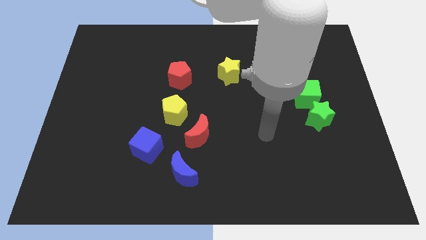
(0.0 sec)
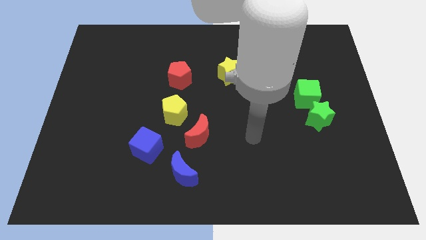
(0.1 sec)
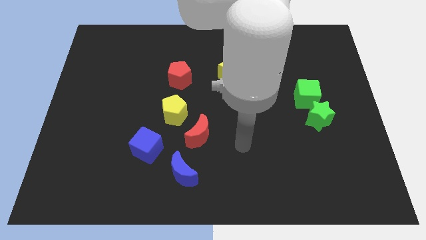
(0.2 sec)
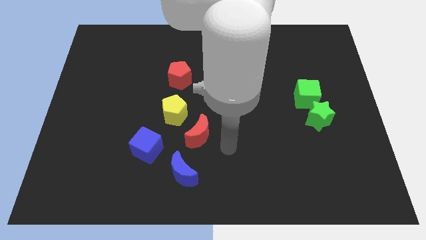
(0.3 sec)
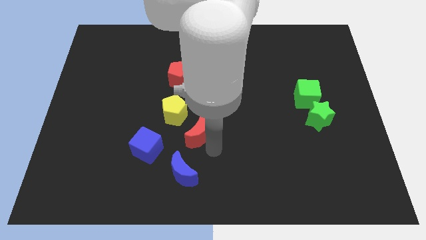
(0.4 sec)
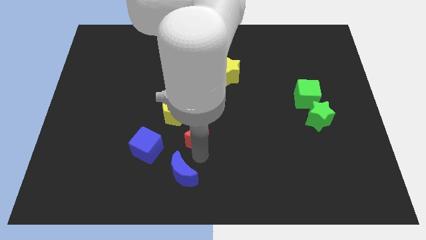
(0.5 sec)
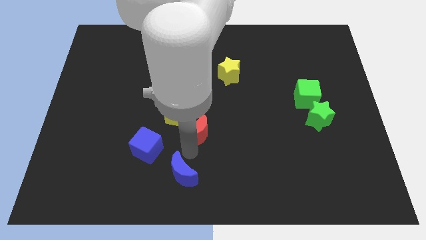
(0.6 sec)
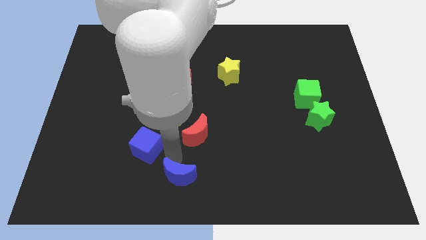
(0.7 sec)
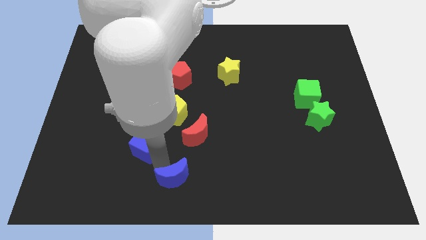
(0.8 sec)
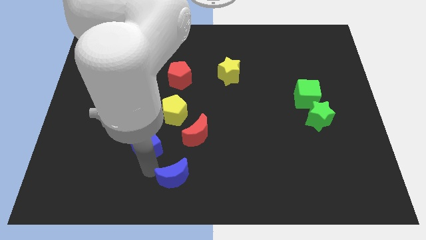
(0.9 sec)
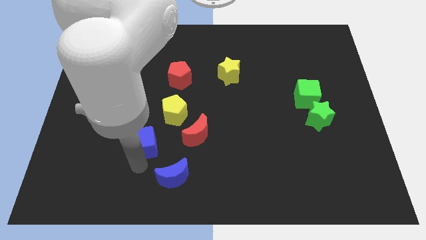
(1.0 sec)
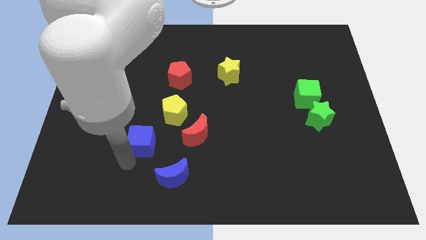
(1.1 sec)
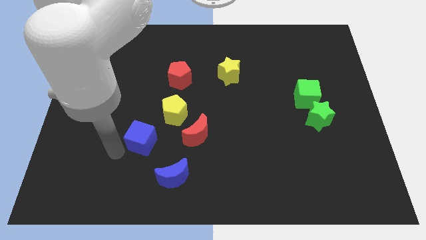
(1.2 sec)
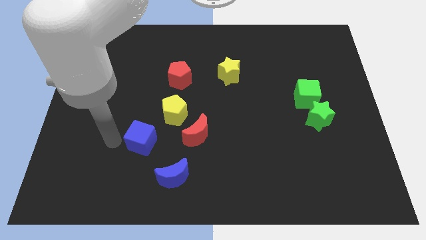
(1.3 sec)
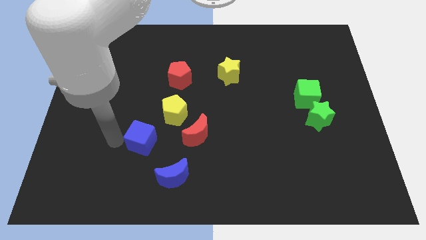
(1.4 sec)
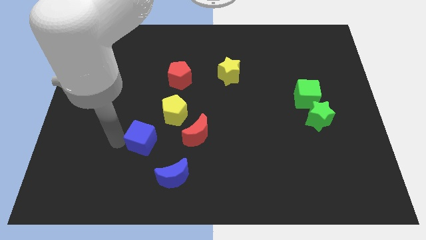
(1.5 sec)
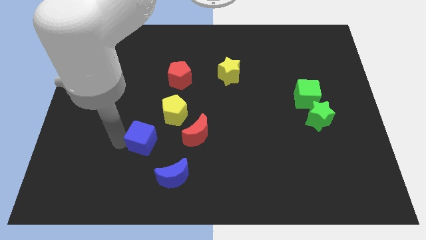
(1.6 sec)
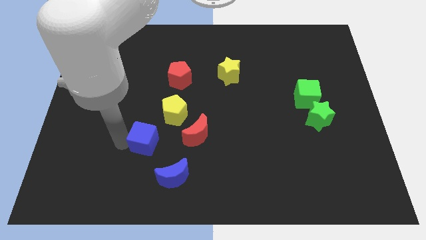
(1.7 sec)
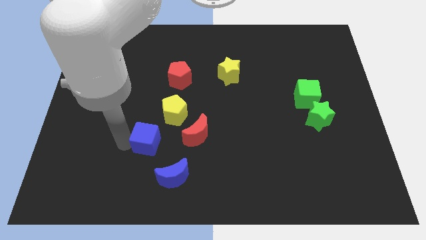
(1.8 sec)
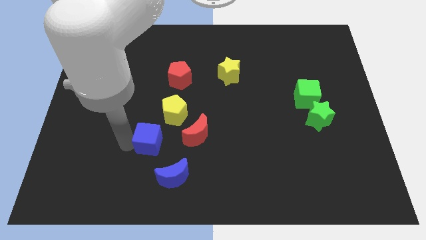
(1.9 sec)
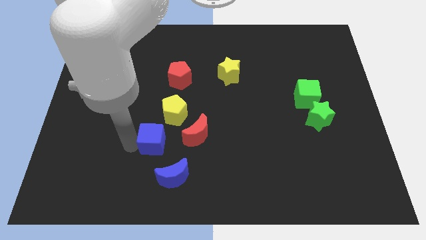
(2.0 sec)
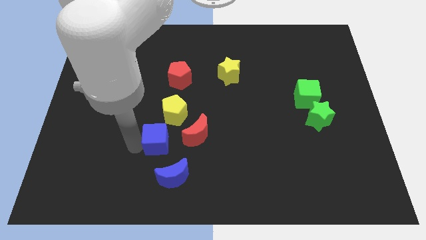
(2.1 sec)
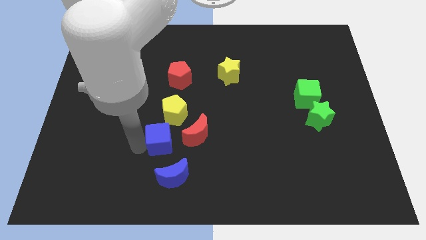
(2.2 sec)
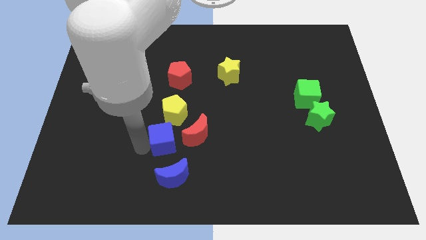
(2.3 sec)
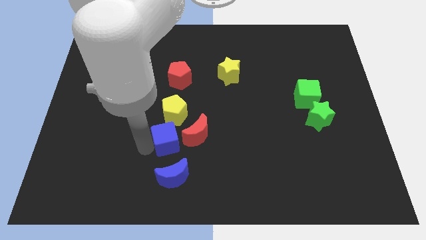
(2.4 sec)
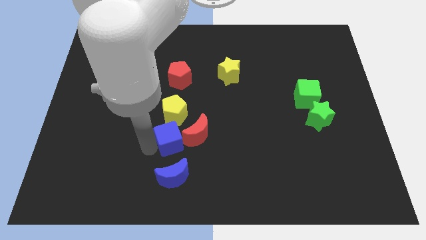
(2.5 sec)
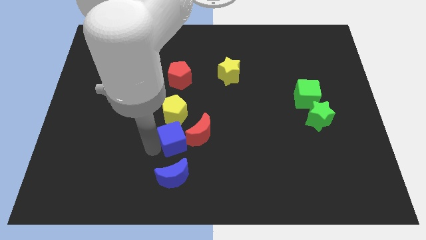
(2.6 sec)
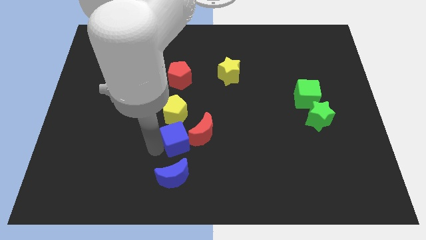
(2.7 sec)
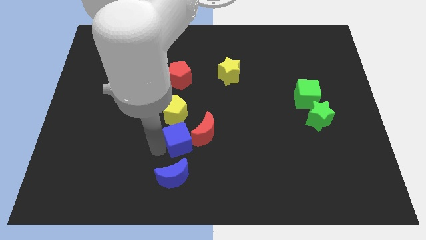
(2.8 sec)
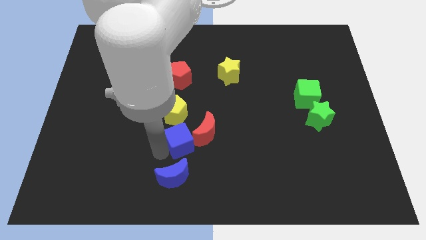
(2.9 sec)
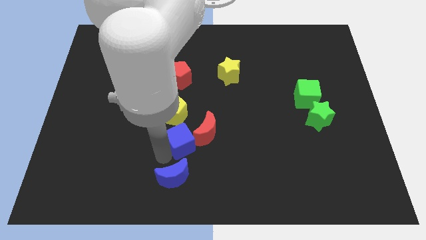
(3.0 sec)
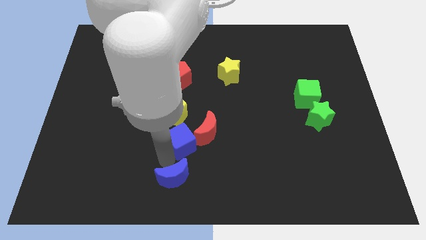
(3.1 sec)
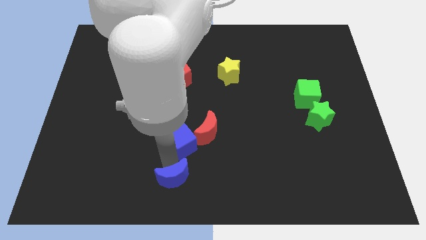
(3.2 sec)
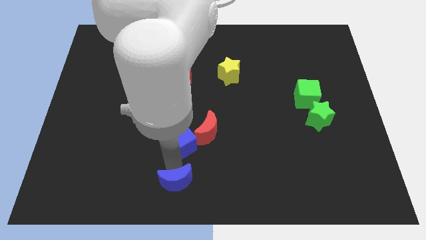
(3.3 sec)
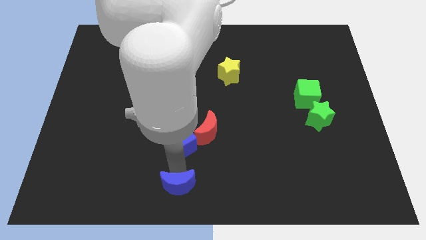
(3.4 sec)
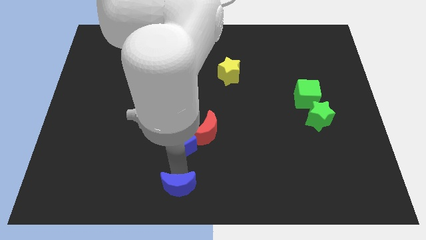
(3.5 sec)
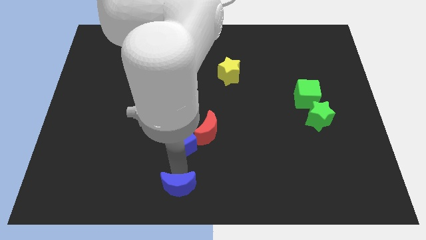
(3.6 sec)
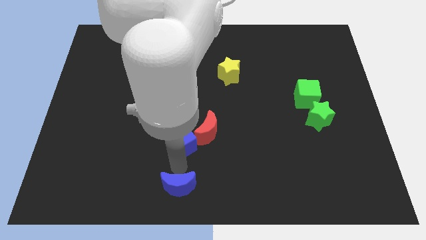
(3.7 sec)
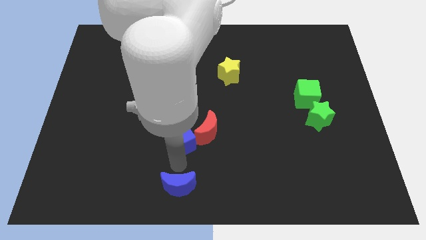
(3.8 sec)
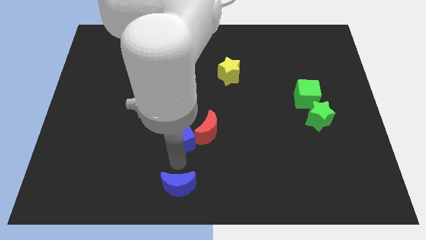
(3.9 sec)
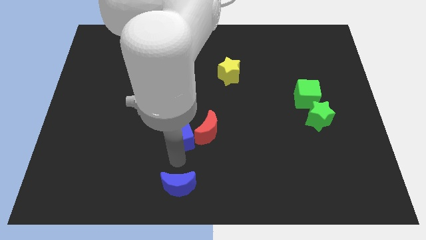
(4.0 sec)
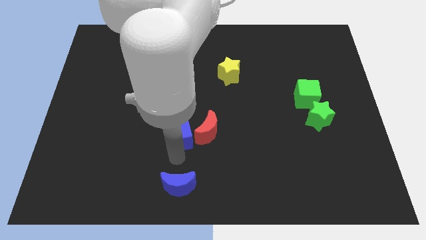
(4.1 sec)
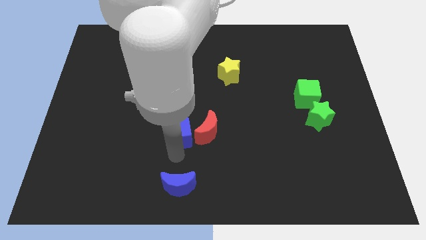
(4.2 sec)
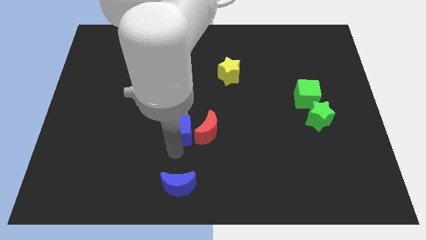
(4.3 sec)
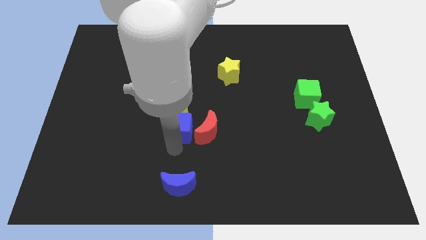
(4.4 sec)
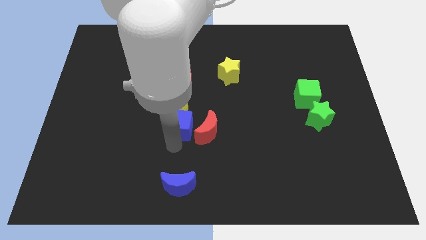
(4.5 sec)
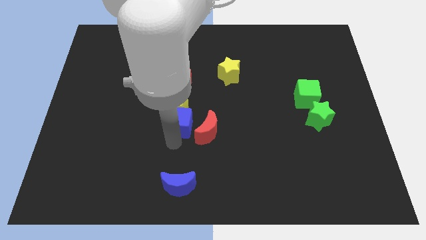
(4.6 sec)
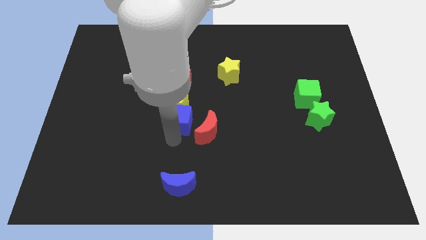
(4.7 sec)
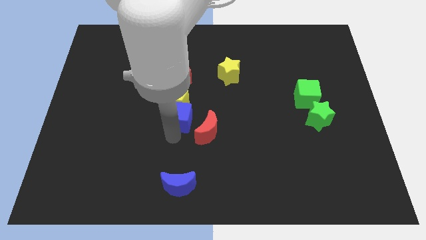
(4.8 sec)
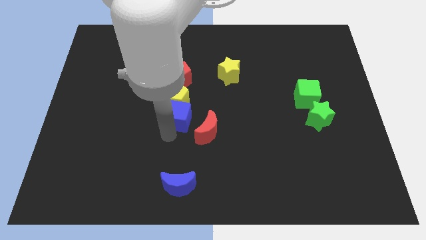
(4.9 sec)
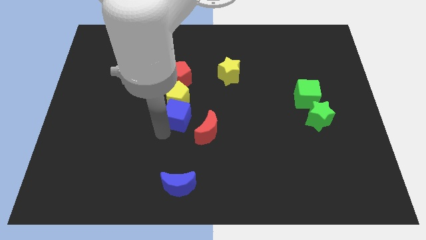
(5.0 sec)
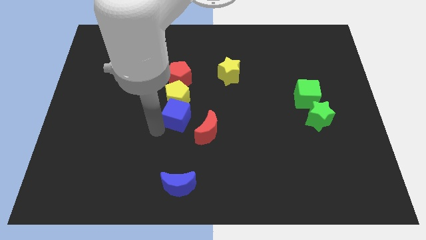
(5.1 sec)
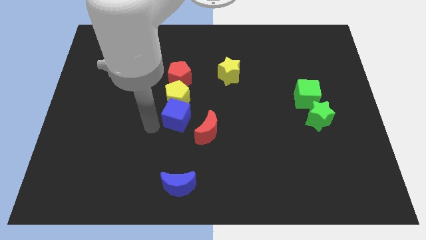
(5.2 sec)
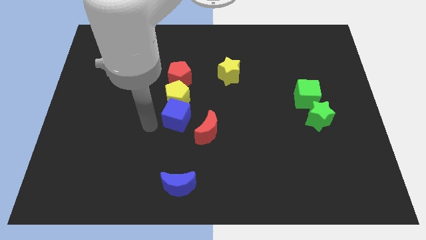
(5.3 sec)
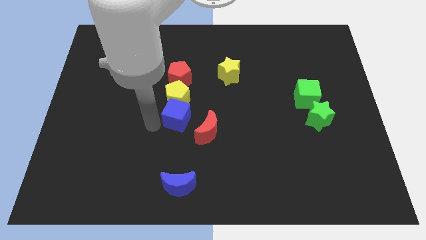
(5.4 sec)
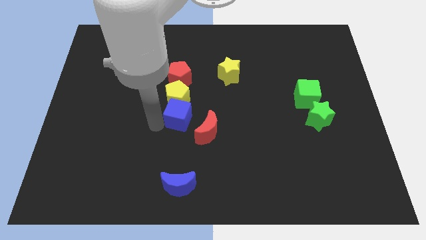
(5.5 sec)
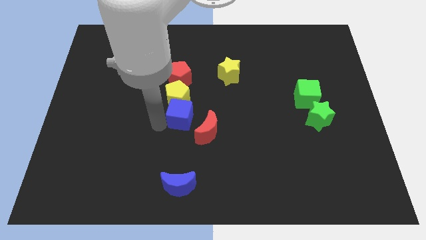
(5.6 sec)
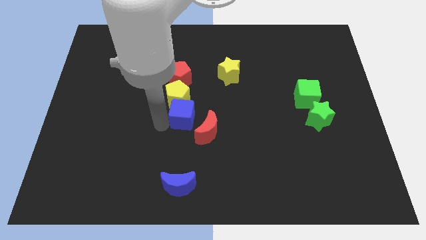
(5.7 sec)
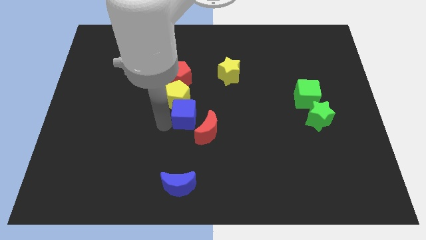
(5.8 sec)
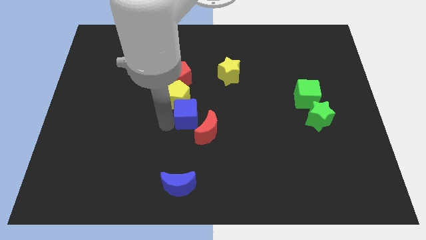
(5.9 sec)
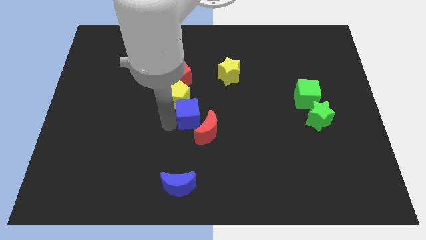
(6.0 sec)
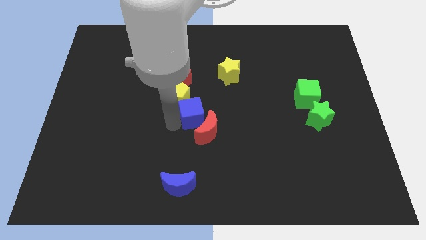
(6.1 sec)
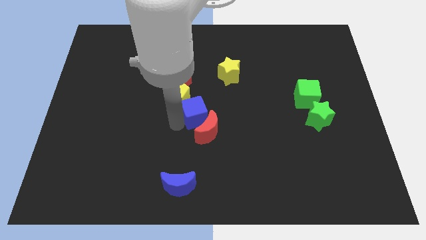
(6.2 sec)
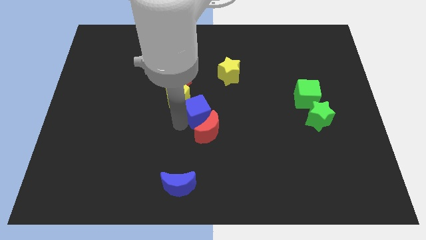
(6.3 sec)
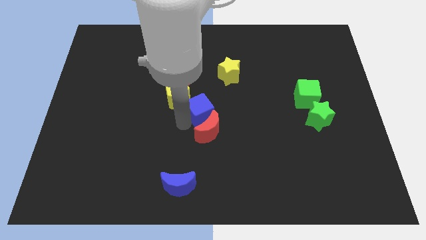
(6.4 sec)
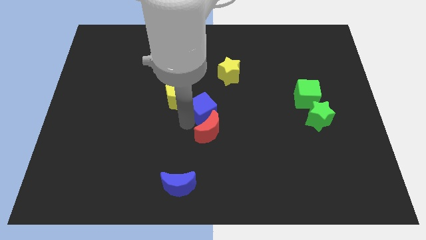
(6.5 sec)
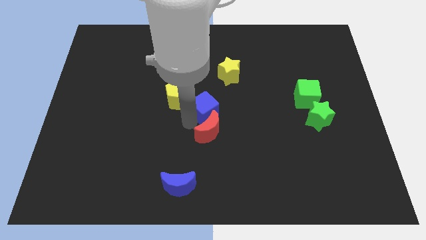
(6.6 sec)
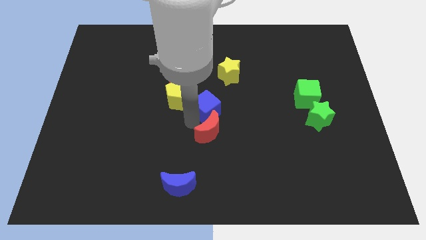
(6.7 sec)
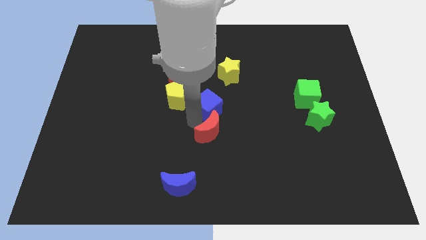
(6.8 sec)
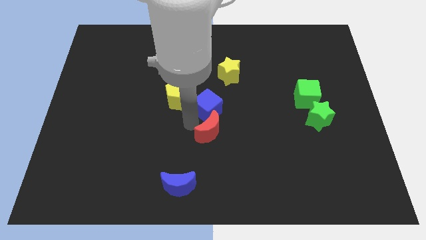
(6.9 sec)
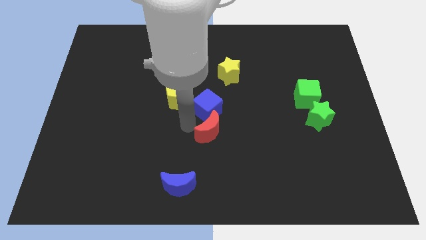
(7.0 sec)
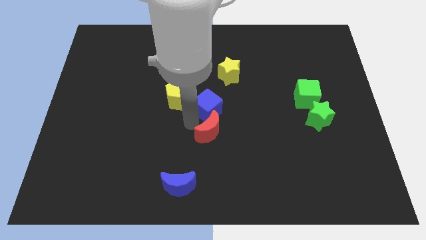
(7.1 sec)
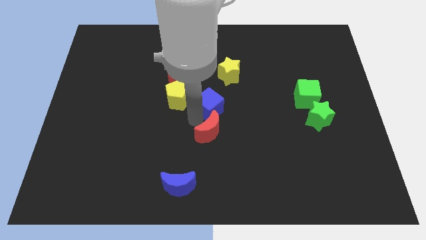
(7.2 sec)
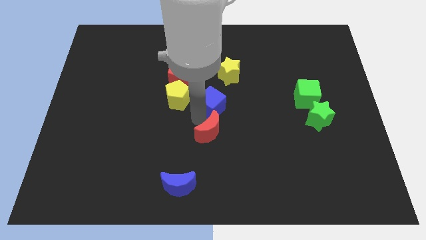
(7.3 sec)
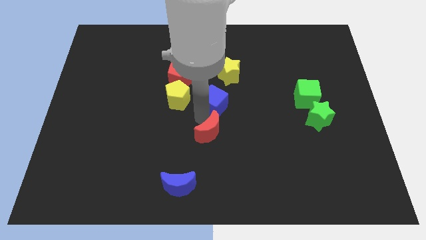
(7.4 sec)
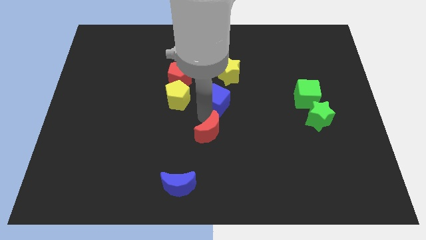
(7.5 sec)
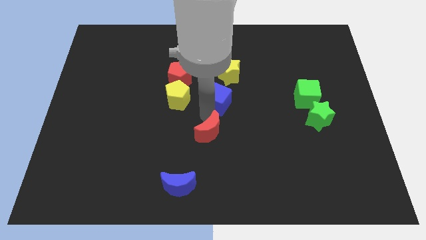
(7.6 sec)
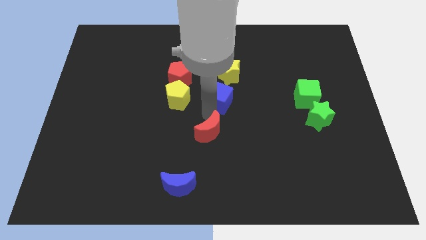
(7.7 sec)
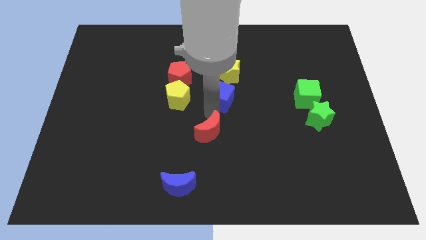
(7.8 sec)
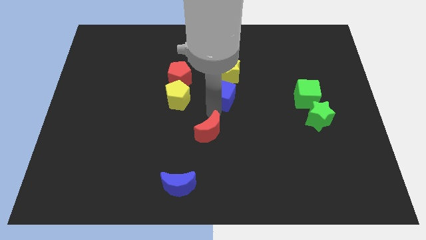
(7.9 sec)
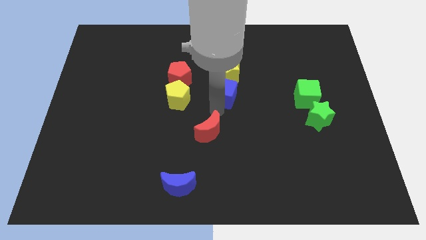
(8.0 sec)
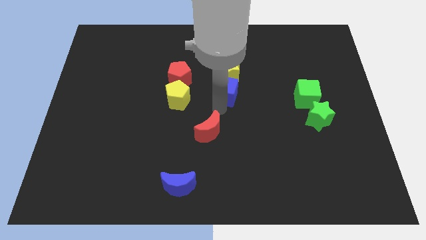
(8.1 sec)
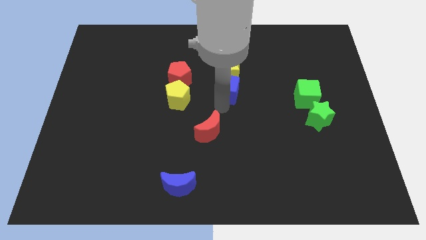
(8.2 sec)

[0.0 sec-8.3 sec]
slide the blue cube to the yellow star

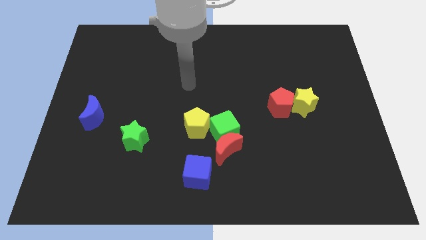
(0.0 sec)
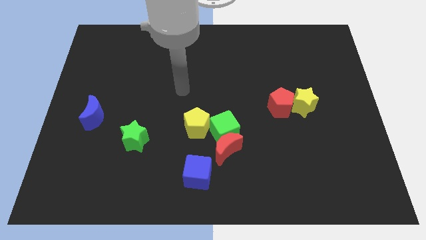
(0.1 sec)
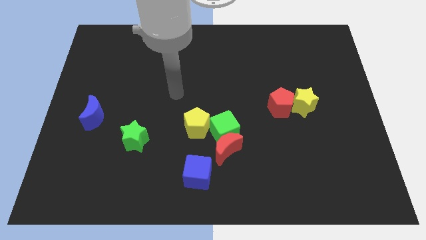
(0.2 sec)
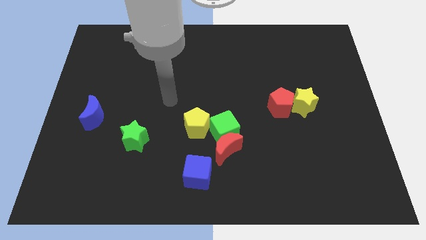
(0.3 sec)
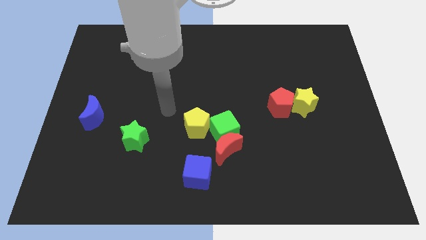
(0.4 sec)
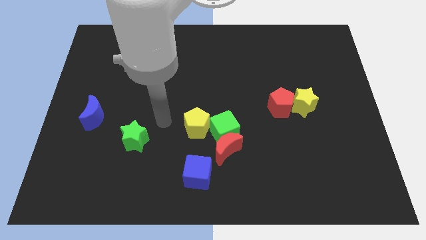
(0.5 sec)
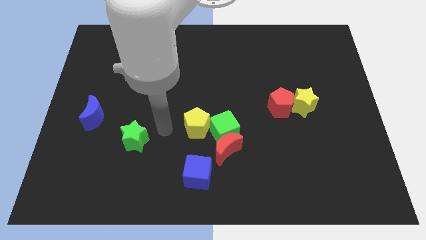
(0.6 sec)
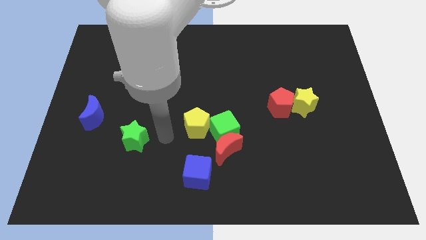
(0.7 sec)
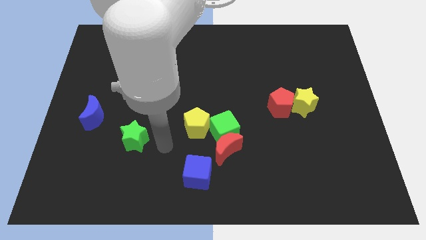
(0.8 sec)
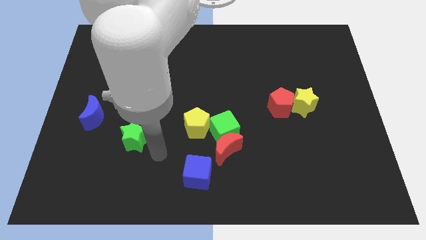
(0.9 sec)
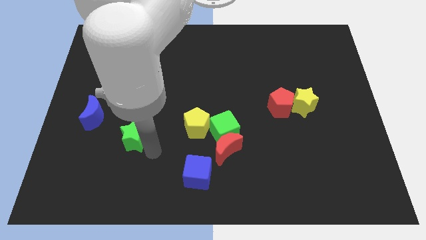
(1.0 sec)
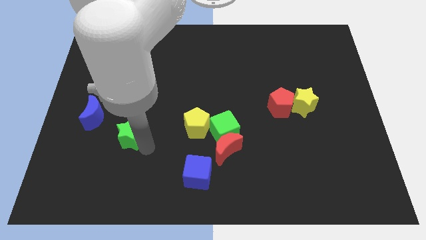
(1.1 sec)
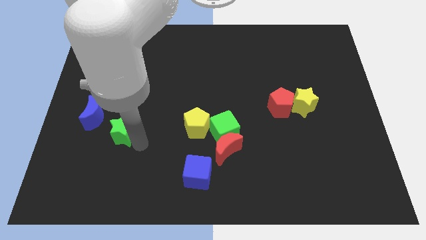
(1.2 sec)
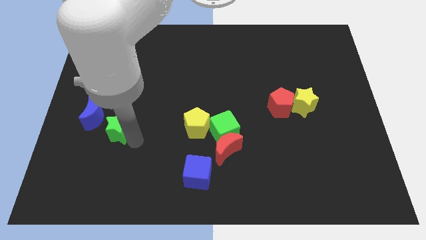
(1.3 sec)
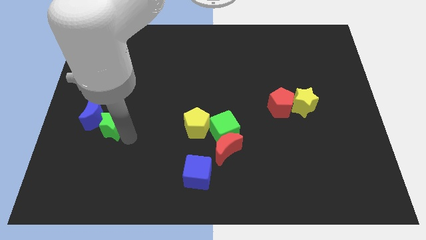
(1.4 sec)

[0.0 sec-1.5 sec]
push the green star close to the blue moon
